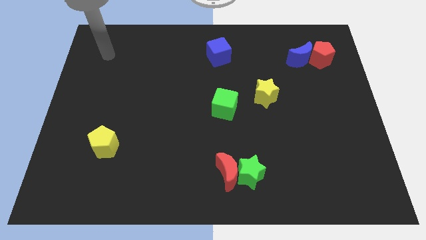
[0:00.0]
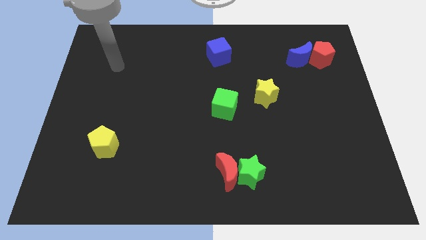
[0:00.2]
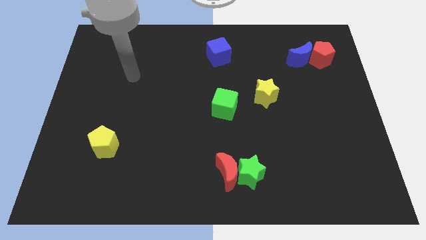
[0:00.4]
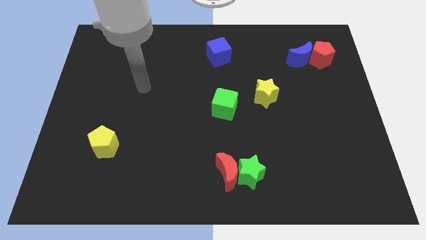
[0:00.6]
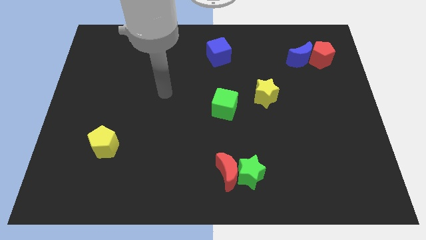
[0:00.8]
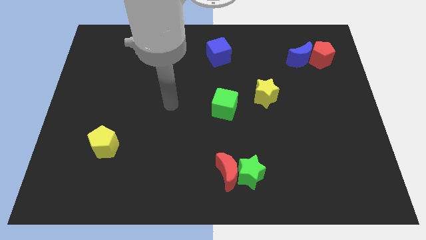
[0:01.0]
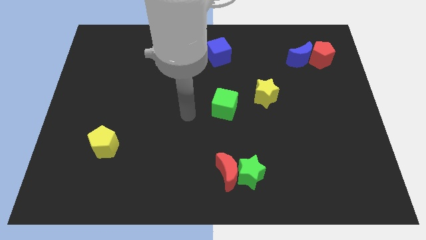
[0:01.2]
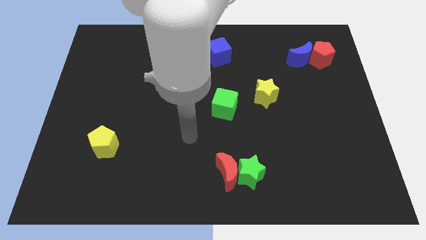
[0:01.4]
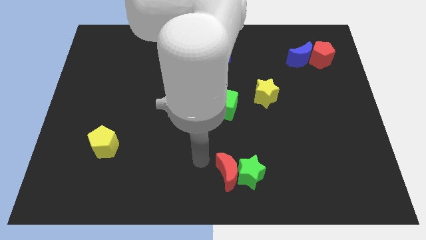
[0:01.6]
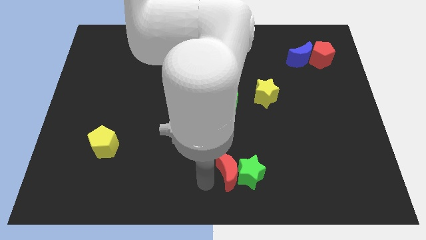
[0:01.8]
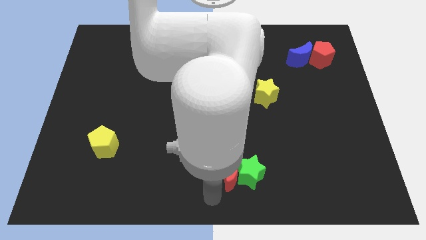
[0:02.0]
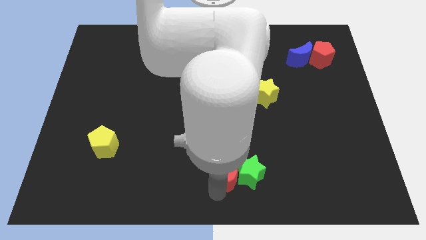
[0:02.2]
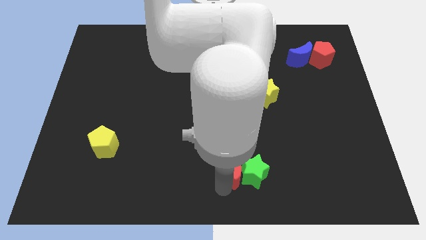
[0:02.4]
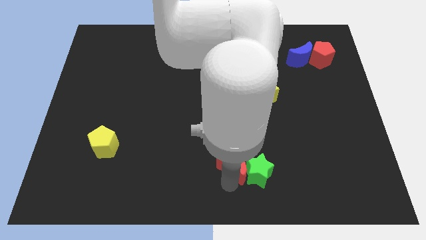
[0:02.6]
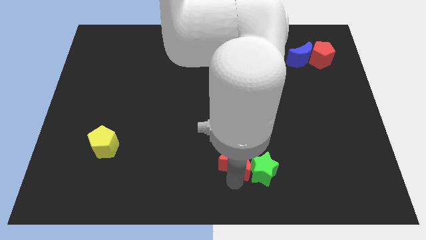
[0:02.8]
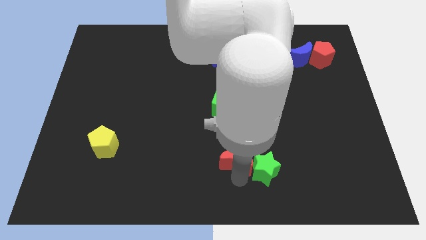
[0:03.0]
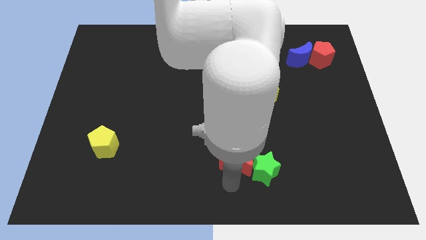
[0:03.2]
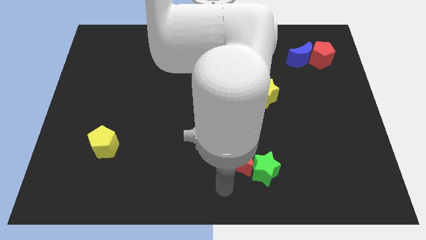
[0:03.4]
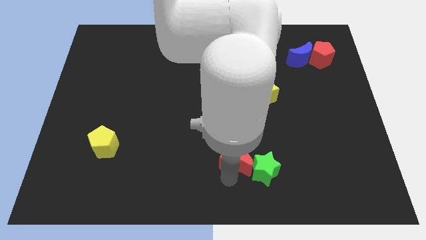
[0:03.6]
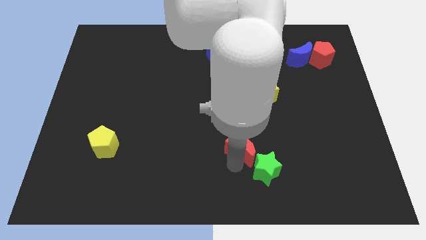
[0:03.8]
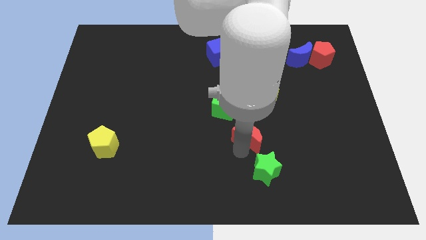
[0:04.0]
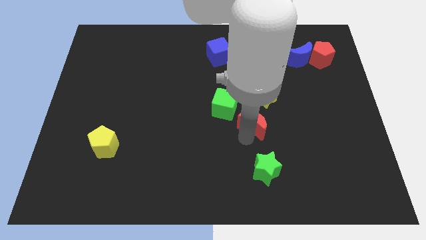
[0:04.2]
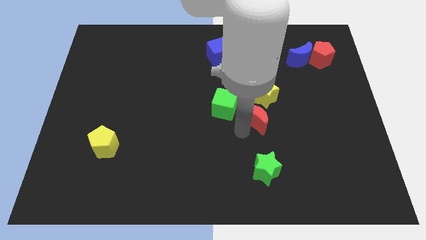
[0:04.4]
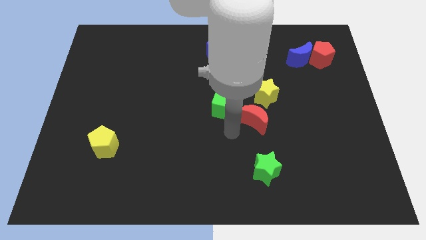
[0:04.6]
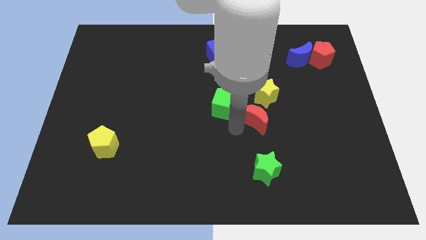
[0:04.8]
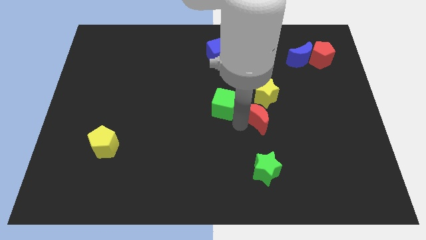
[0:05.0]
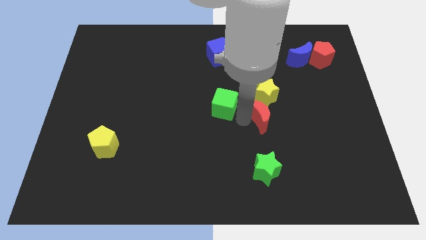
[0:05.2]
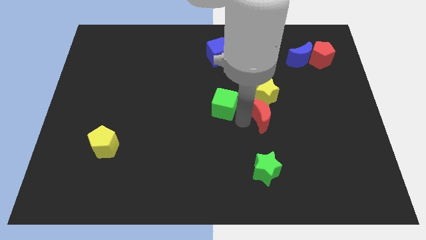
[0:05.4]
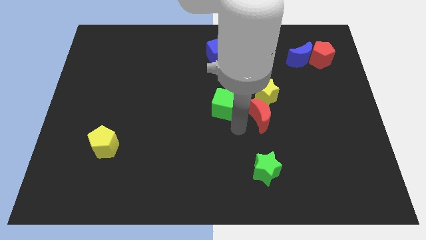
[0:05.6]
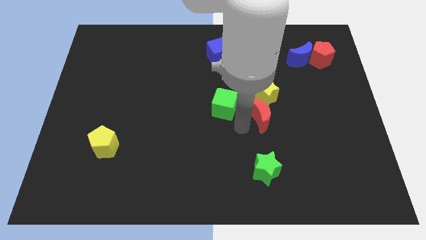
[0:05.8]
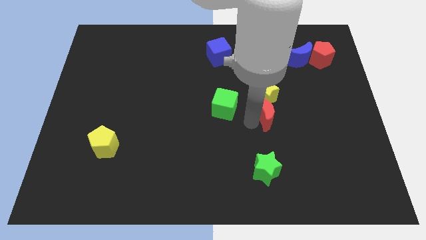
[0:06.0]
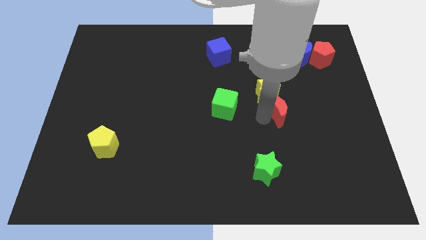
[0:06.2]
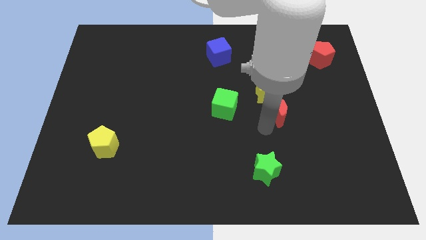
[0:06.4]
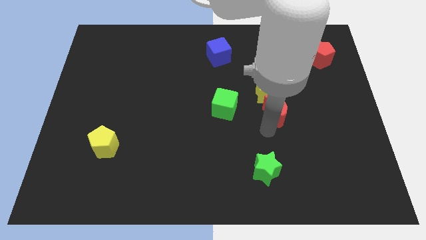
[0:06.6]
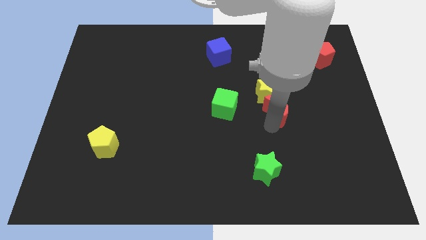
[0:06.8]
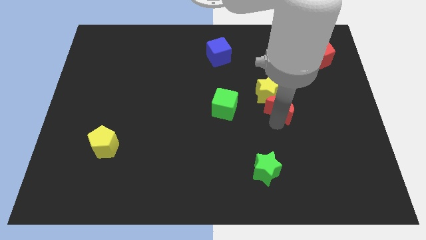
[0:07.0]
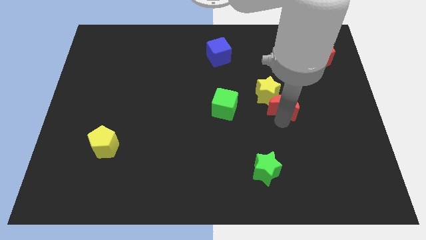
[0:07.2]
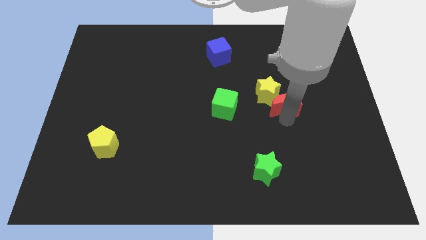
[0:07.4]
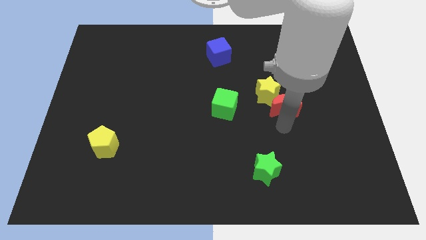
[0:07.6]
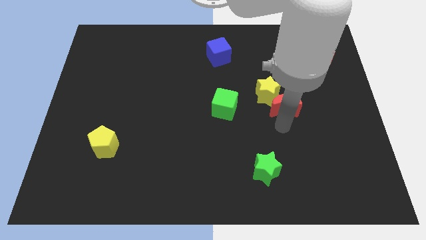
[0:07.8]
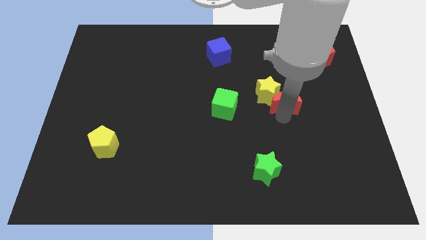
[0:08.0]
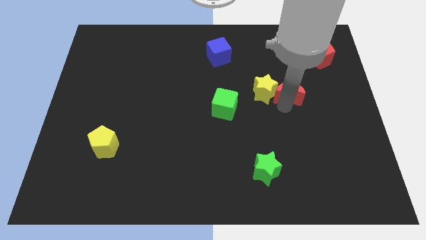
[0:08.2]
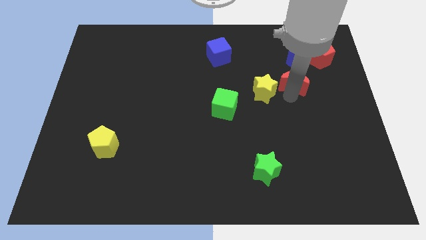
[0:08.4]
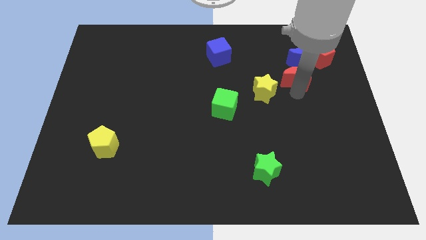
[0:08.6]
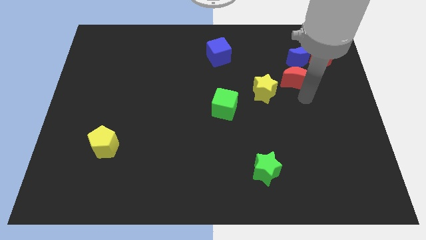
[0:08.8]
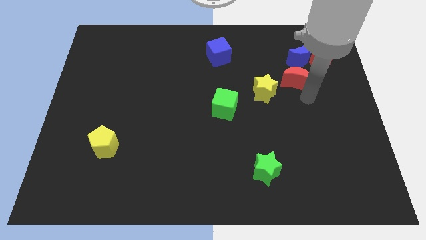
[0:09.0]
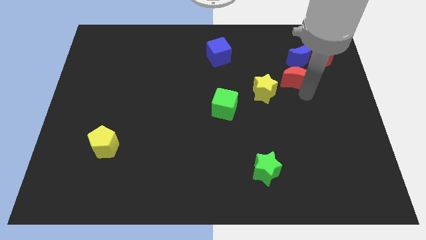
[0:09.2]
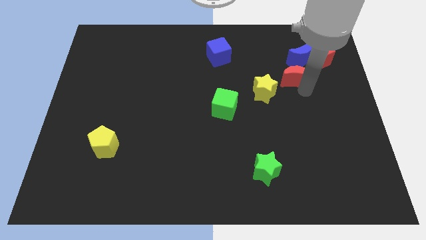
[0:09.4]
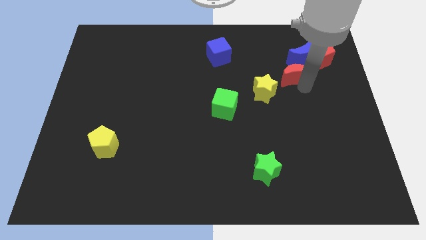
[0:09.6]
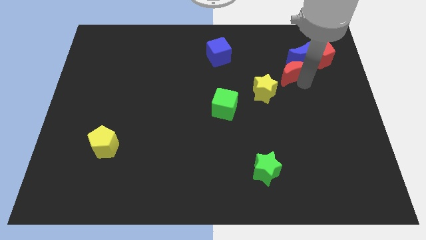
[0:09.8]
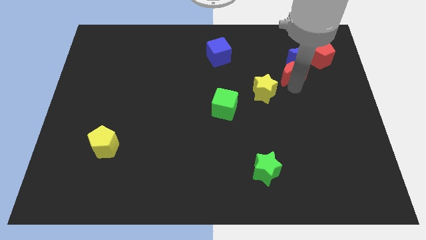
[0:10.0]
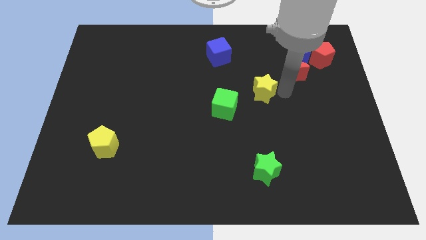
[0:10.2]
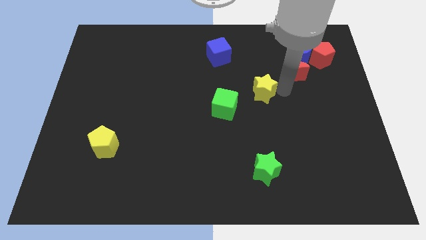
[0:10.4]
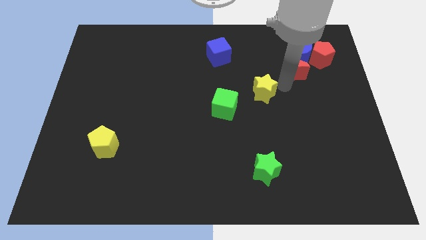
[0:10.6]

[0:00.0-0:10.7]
slide the red moon towards the blue moon

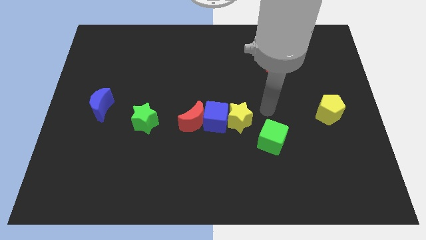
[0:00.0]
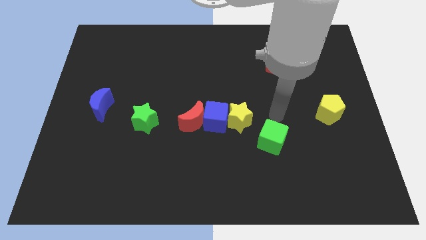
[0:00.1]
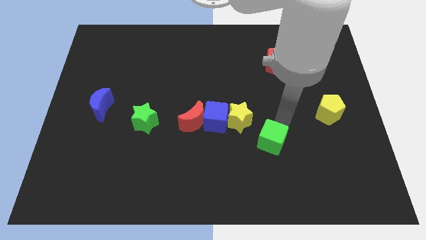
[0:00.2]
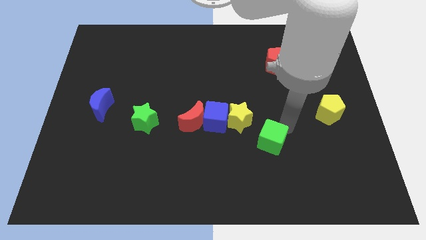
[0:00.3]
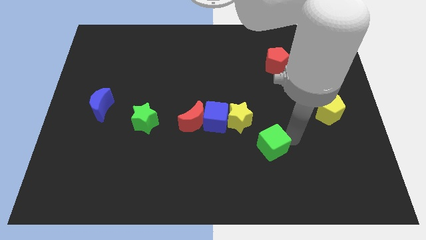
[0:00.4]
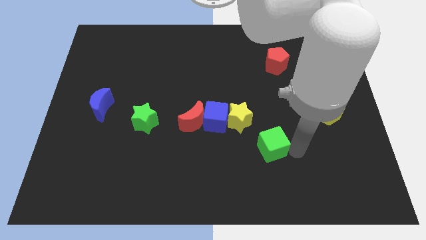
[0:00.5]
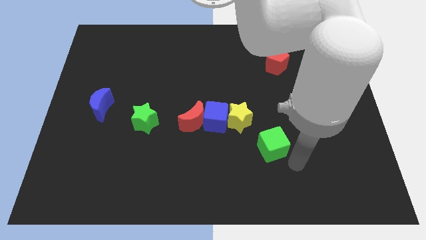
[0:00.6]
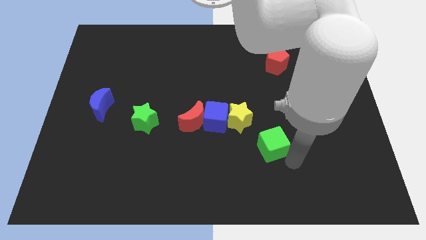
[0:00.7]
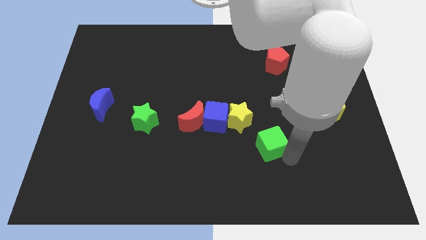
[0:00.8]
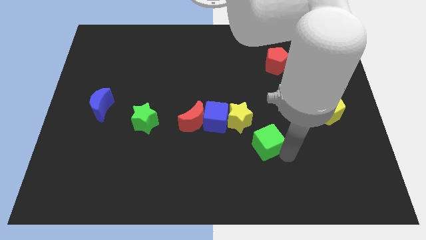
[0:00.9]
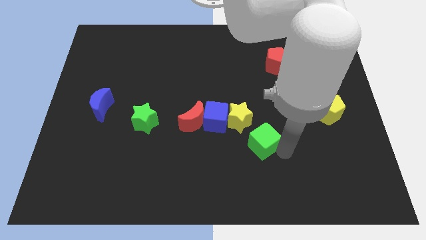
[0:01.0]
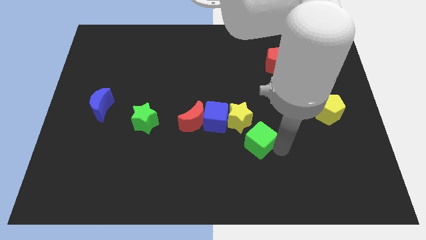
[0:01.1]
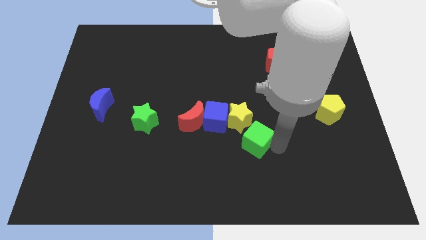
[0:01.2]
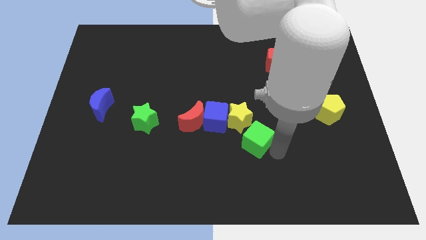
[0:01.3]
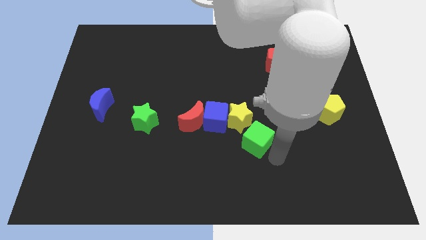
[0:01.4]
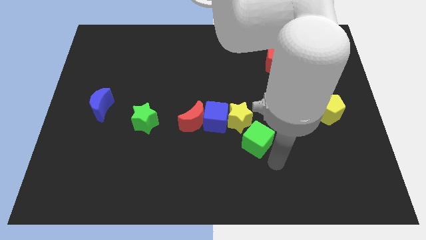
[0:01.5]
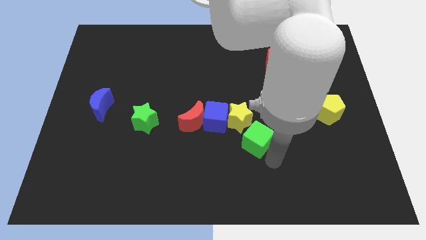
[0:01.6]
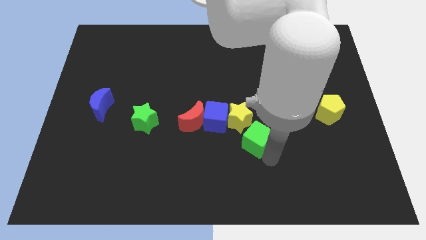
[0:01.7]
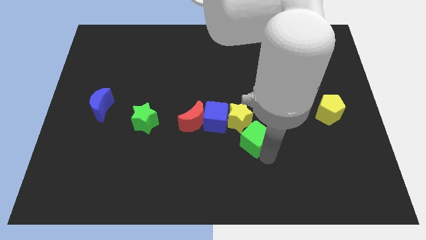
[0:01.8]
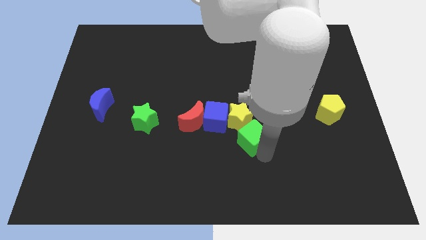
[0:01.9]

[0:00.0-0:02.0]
put the green cube next to the yellow star
